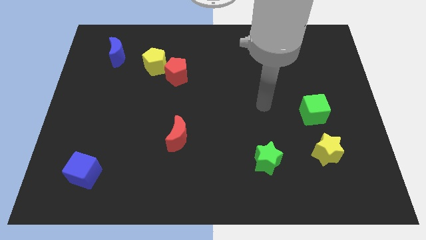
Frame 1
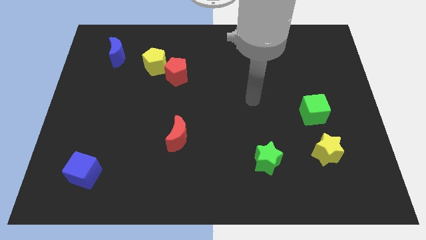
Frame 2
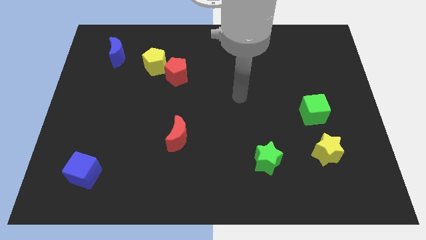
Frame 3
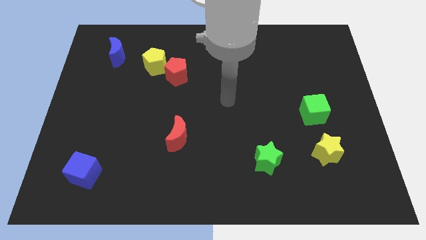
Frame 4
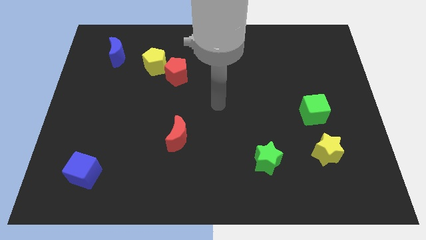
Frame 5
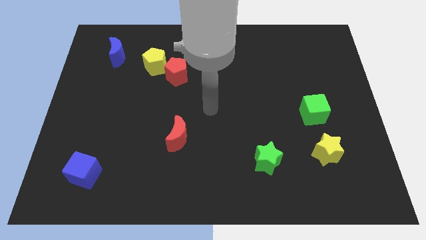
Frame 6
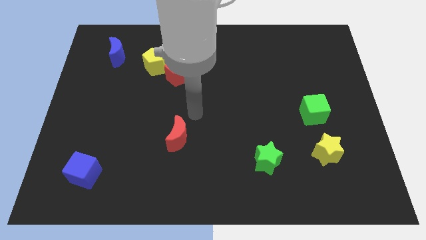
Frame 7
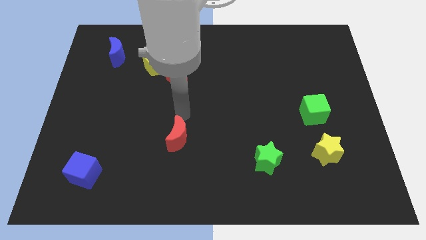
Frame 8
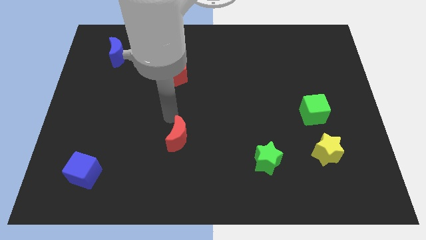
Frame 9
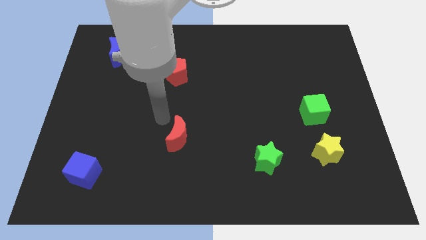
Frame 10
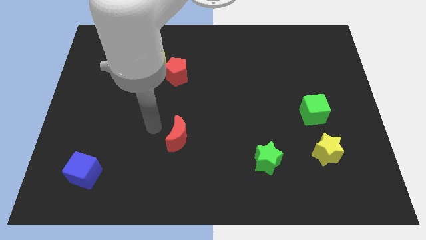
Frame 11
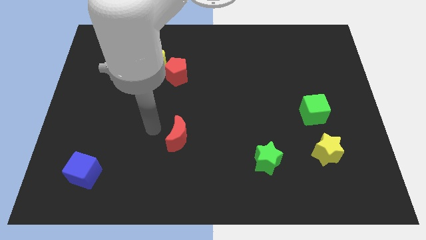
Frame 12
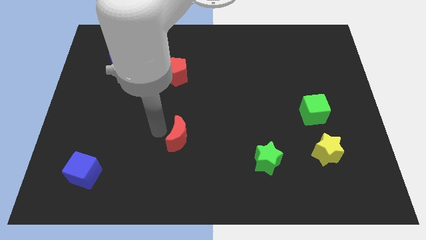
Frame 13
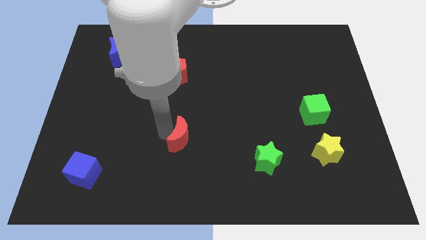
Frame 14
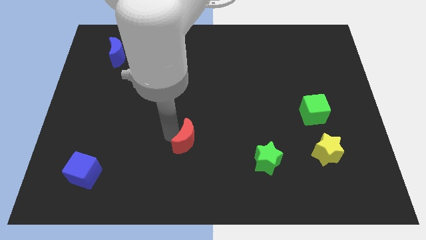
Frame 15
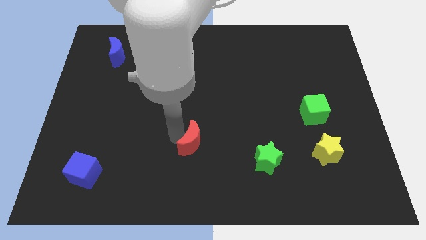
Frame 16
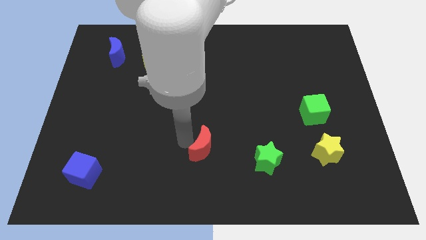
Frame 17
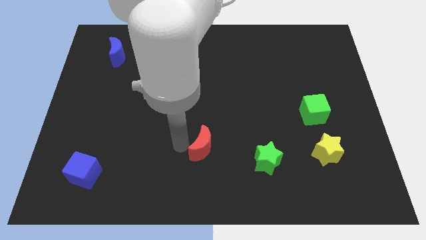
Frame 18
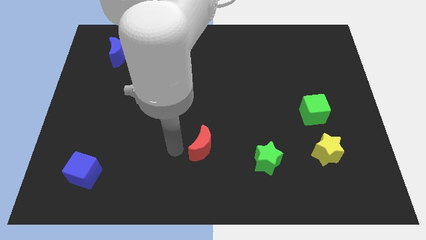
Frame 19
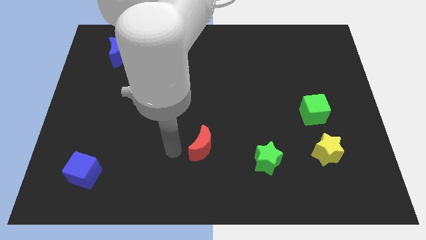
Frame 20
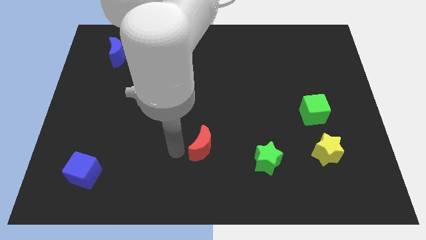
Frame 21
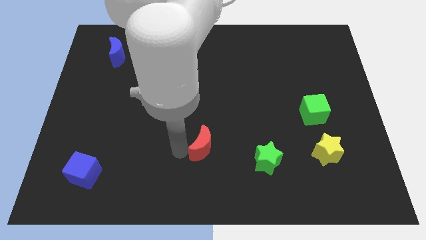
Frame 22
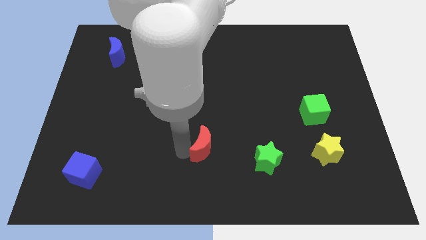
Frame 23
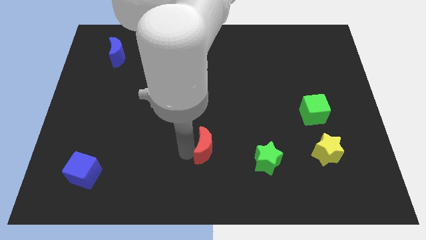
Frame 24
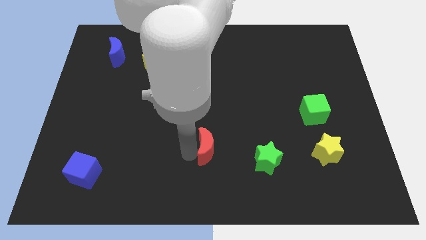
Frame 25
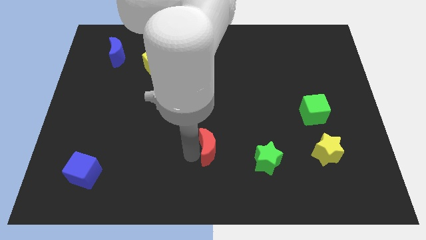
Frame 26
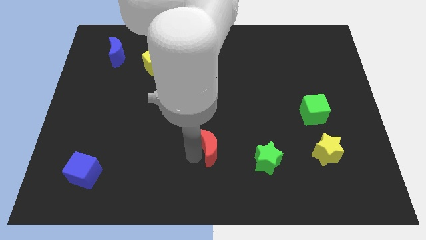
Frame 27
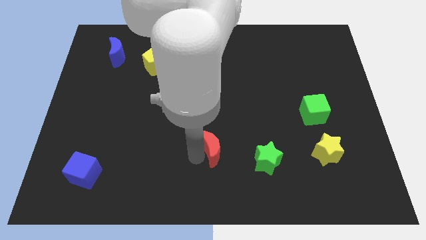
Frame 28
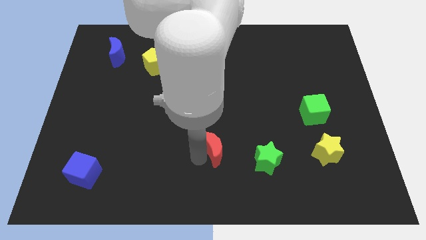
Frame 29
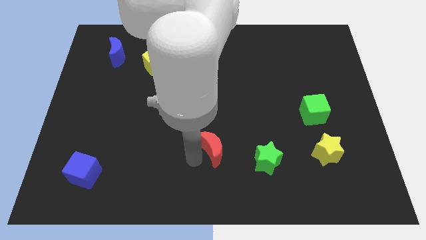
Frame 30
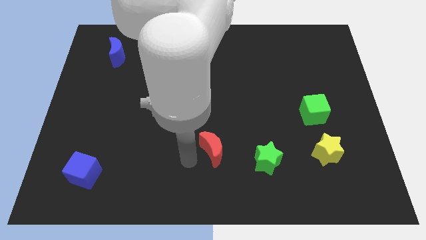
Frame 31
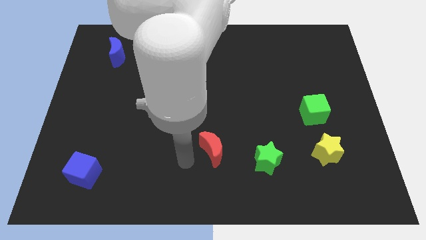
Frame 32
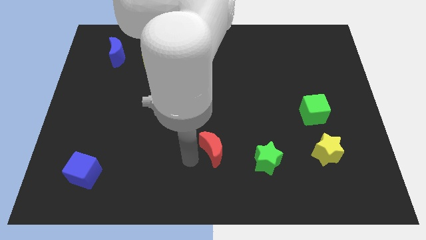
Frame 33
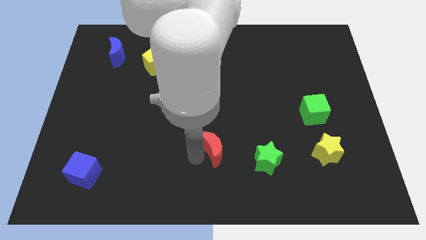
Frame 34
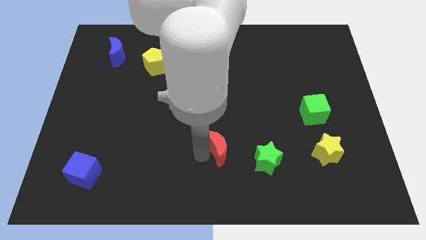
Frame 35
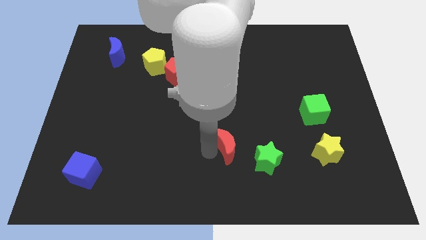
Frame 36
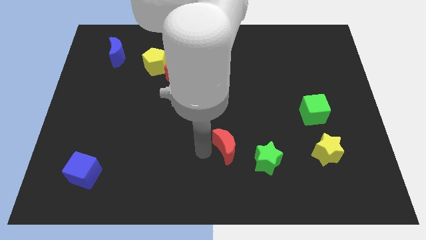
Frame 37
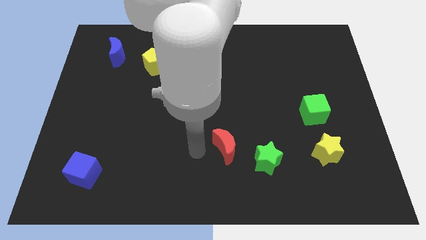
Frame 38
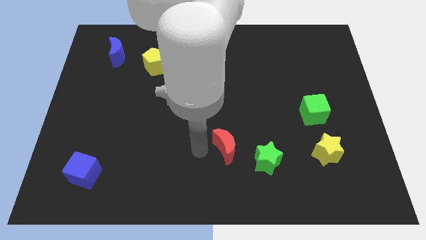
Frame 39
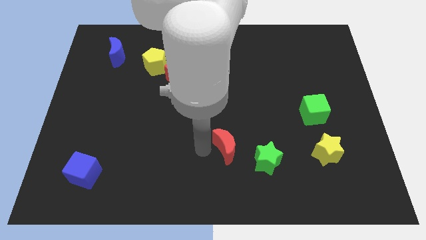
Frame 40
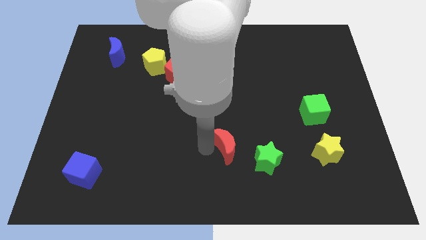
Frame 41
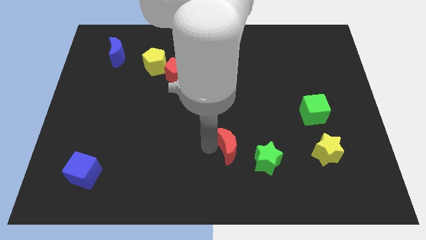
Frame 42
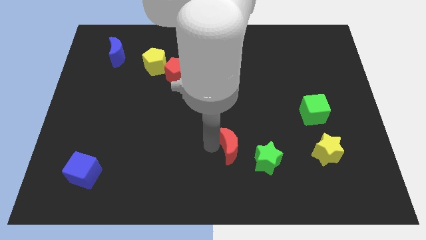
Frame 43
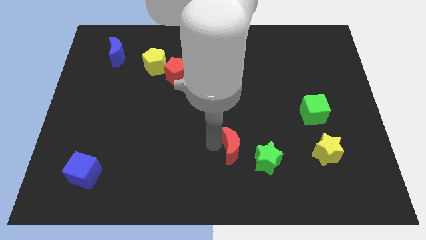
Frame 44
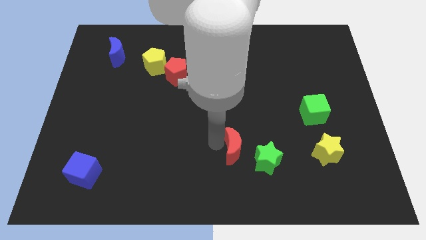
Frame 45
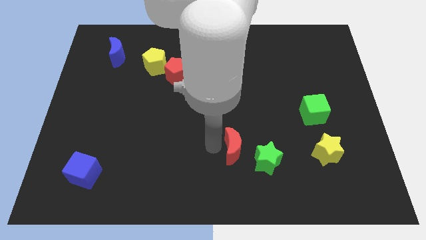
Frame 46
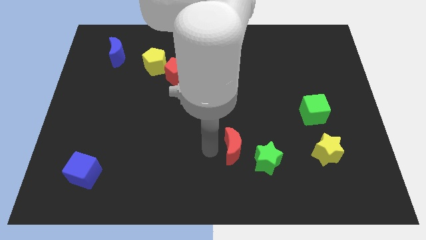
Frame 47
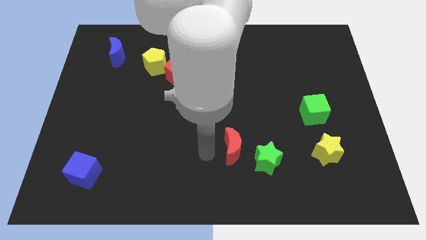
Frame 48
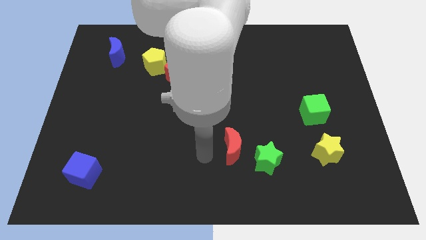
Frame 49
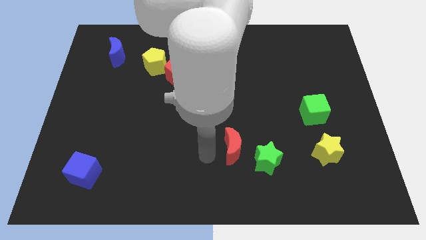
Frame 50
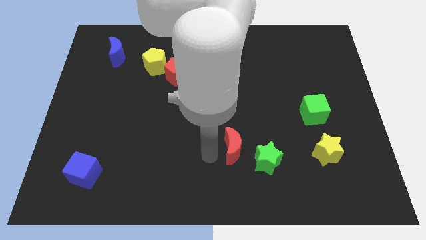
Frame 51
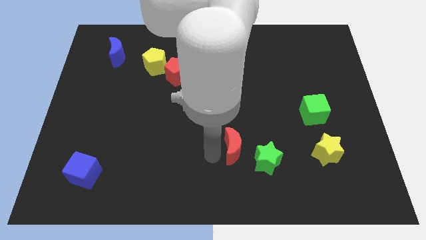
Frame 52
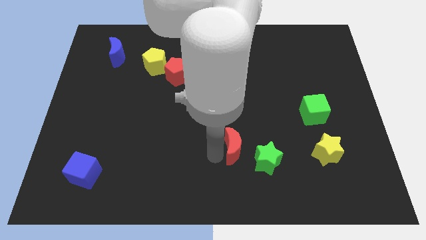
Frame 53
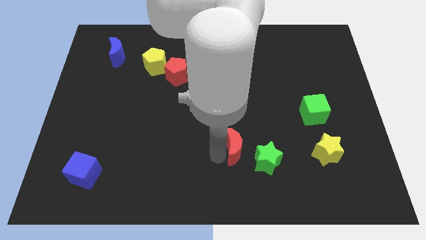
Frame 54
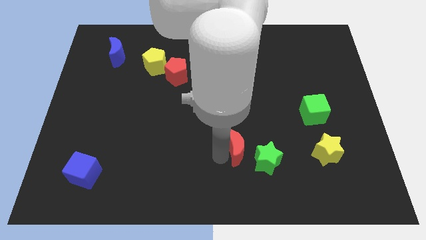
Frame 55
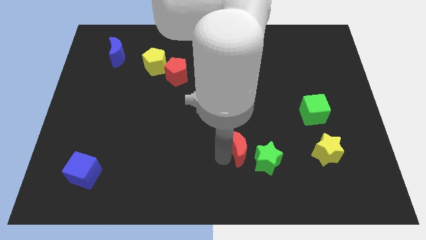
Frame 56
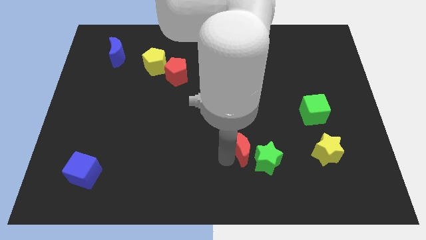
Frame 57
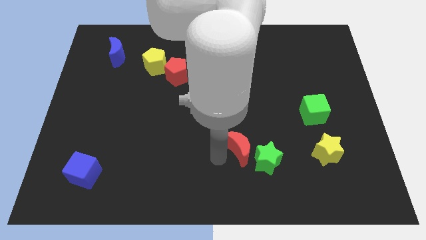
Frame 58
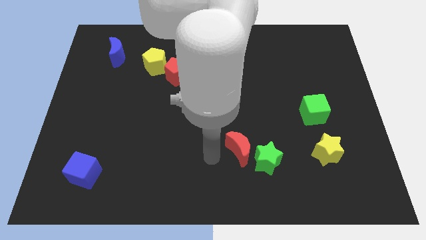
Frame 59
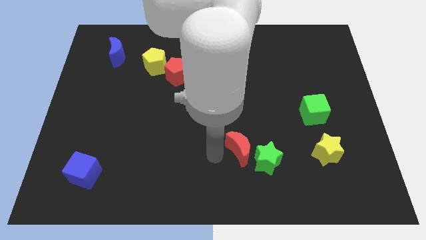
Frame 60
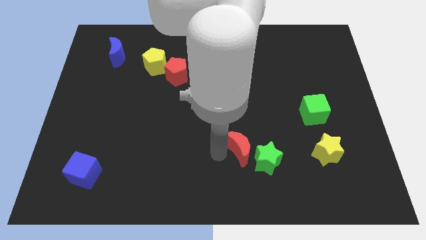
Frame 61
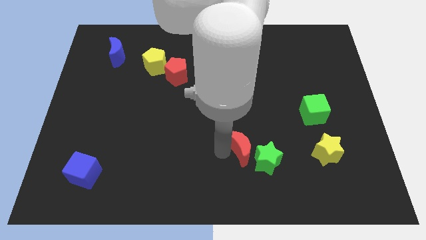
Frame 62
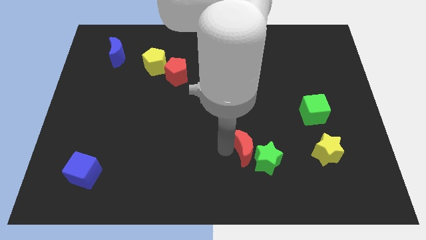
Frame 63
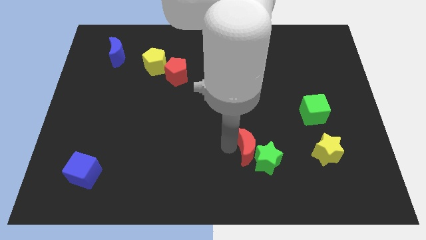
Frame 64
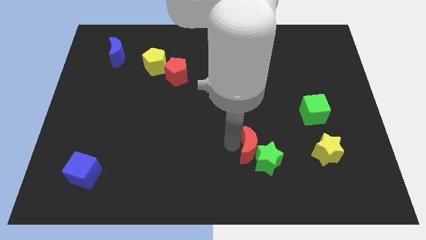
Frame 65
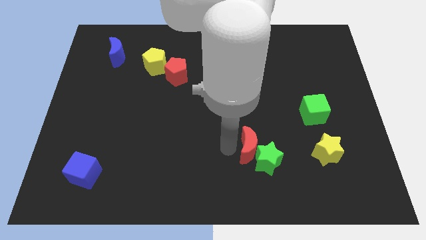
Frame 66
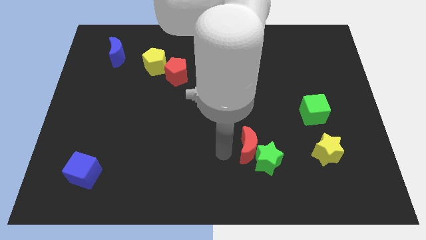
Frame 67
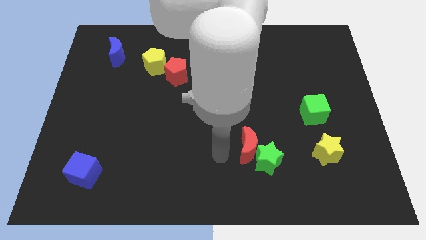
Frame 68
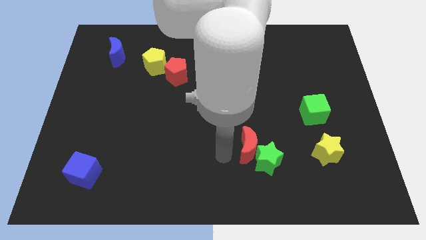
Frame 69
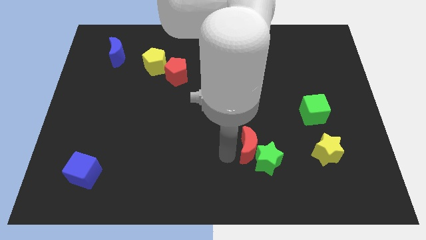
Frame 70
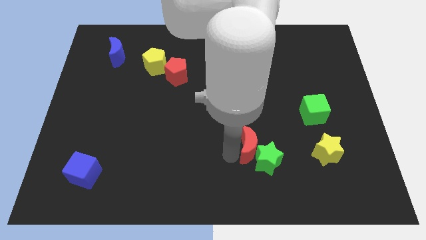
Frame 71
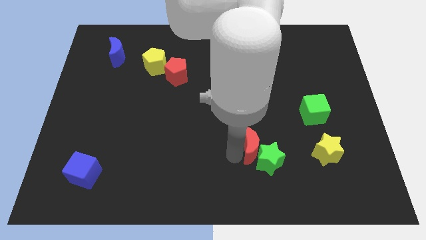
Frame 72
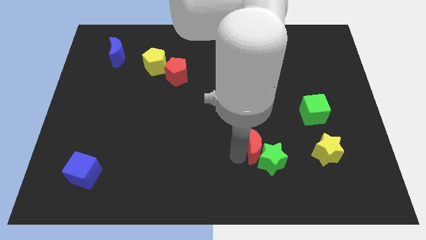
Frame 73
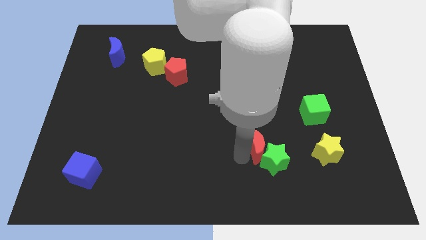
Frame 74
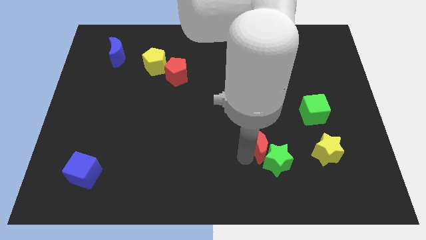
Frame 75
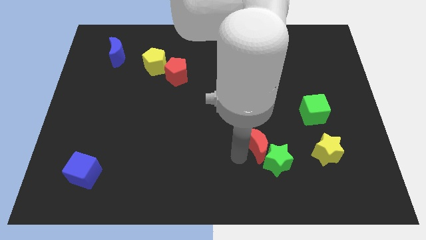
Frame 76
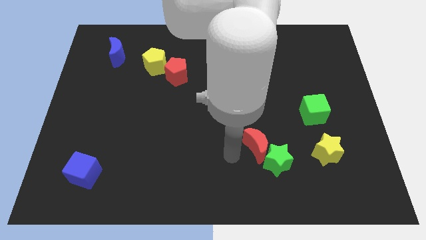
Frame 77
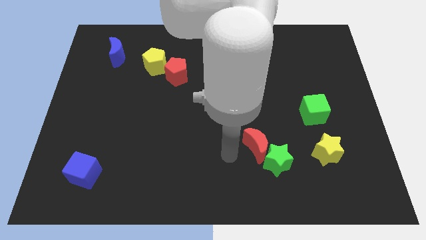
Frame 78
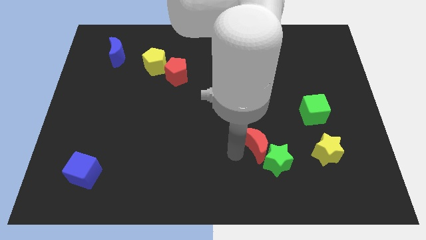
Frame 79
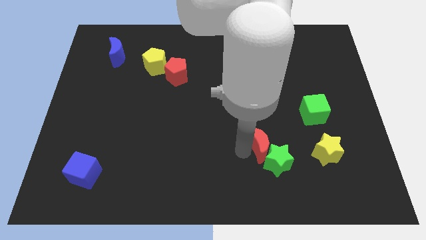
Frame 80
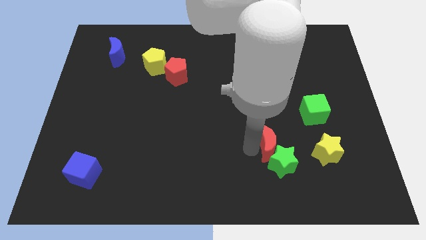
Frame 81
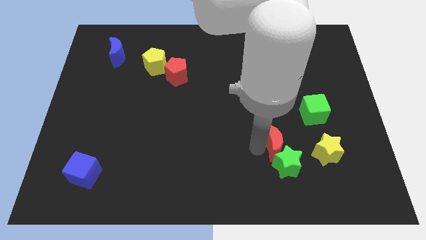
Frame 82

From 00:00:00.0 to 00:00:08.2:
move the red moon right
